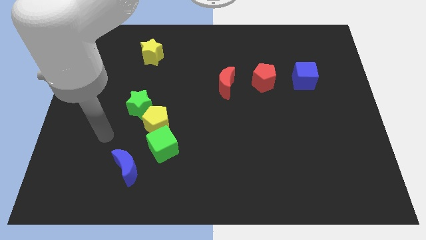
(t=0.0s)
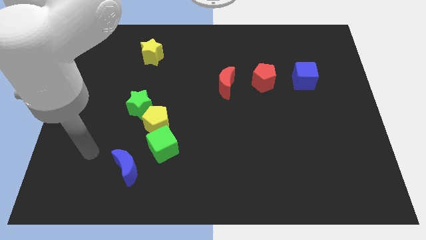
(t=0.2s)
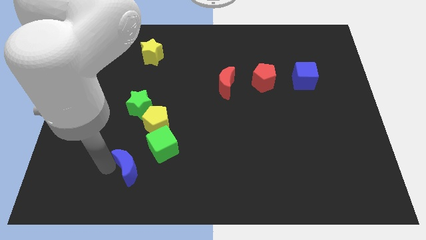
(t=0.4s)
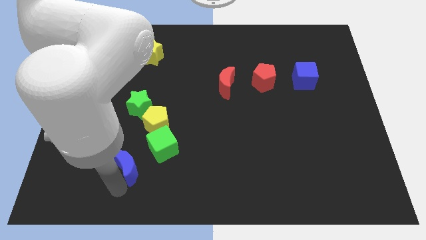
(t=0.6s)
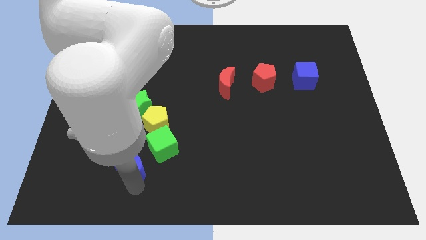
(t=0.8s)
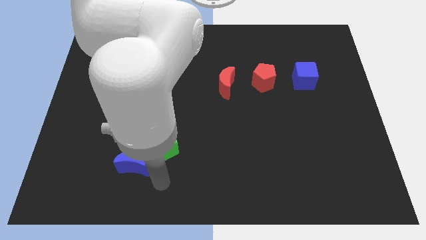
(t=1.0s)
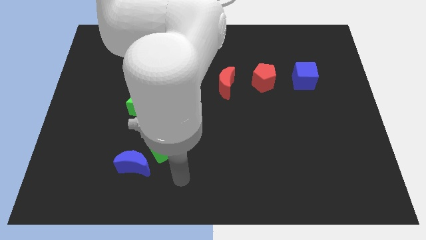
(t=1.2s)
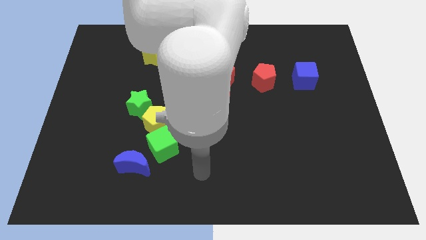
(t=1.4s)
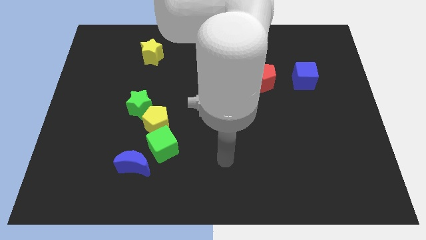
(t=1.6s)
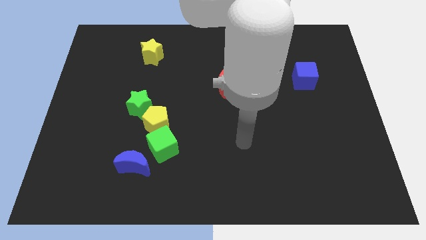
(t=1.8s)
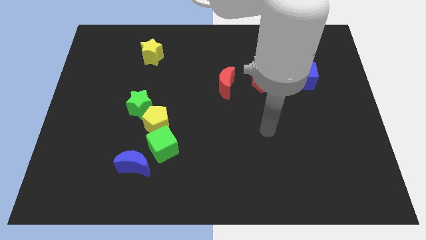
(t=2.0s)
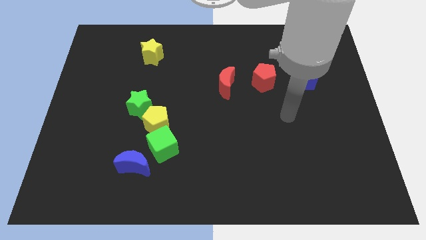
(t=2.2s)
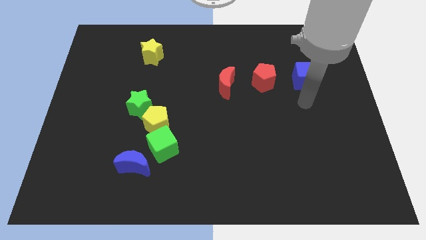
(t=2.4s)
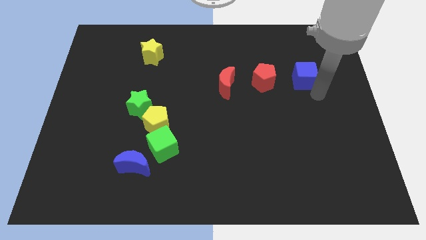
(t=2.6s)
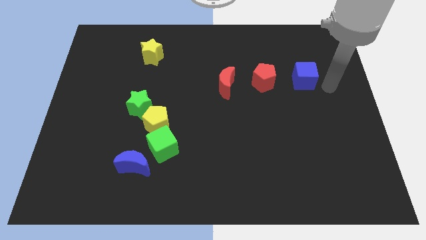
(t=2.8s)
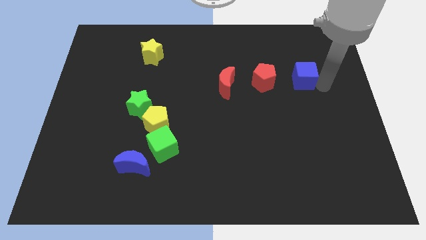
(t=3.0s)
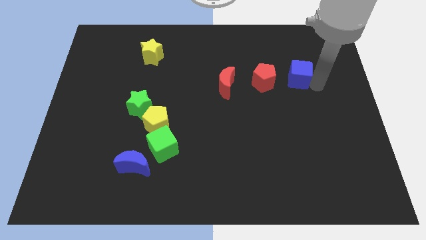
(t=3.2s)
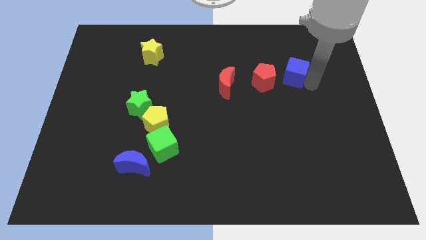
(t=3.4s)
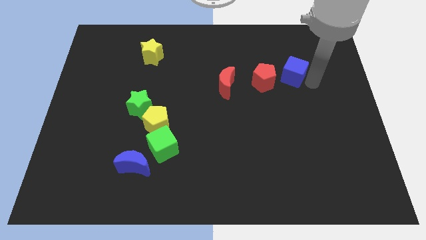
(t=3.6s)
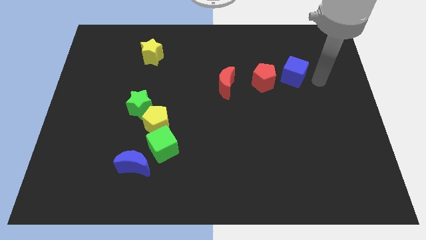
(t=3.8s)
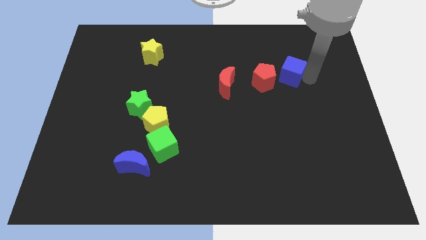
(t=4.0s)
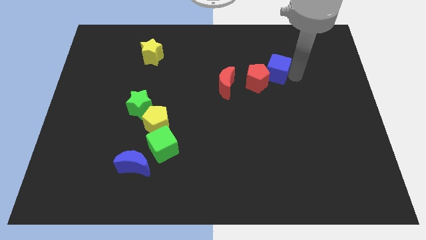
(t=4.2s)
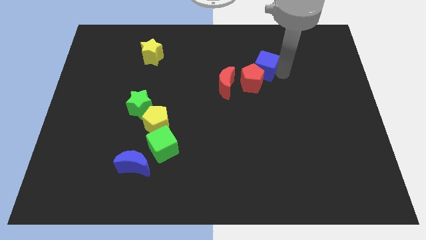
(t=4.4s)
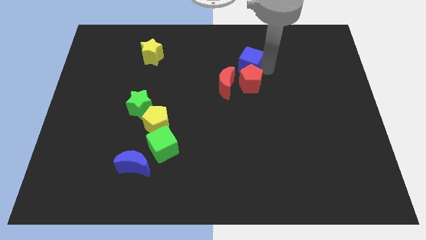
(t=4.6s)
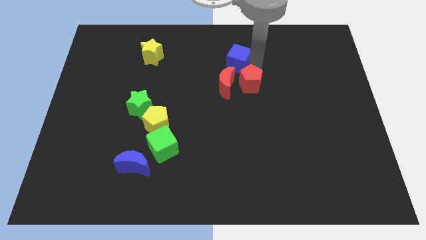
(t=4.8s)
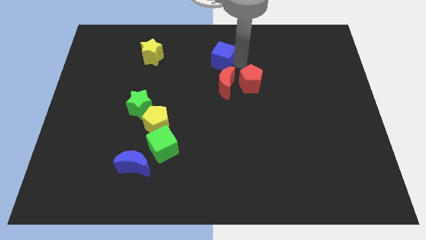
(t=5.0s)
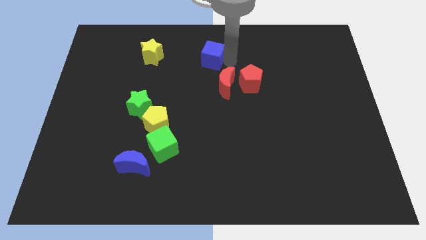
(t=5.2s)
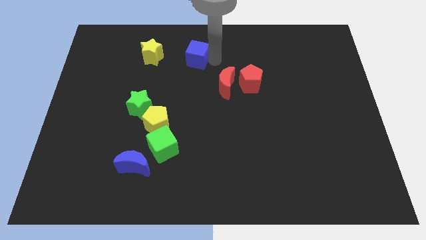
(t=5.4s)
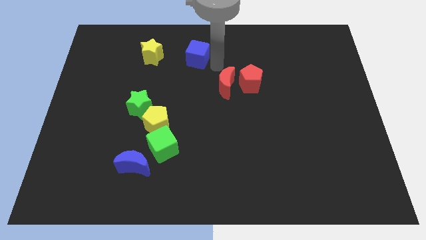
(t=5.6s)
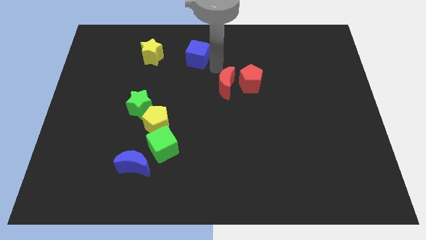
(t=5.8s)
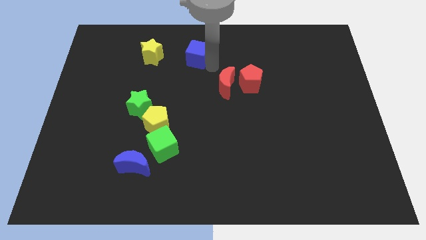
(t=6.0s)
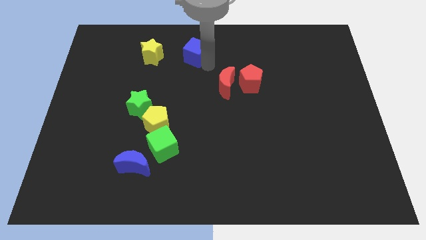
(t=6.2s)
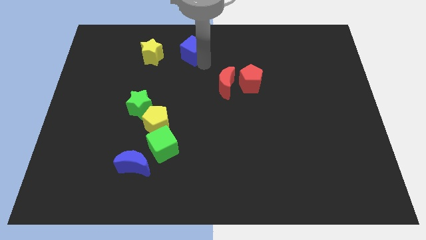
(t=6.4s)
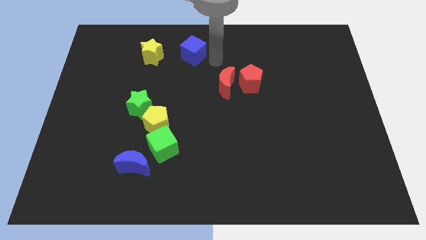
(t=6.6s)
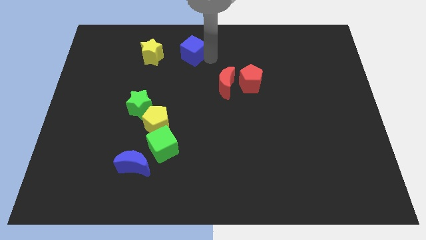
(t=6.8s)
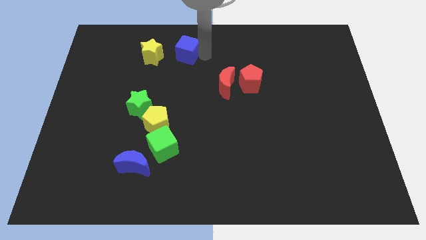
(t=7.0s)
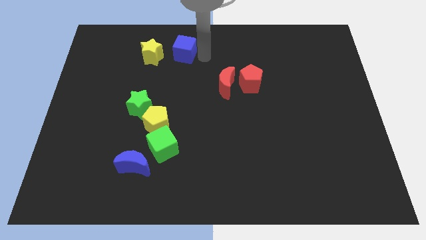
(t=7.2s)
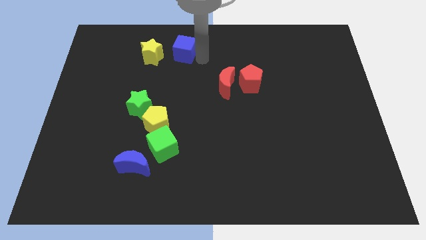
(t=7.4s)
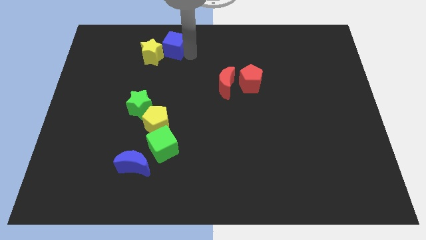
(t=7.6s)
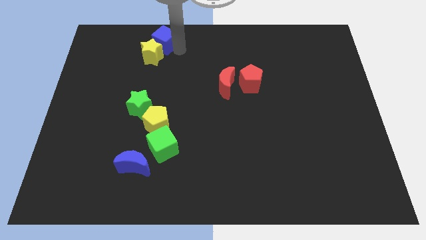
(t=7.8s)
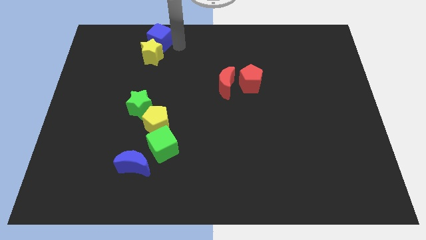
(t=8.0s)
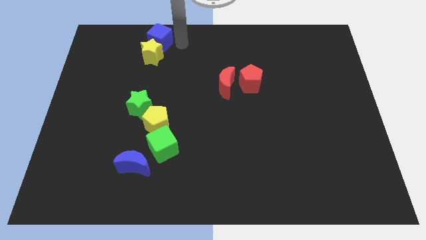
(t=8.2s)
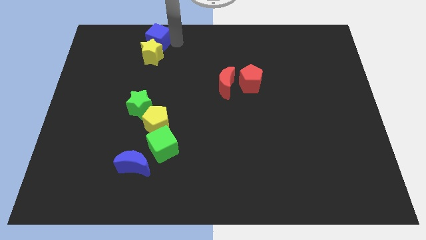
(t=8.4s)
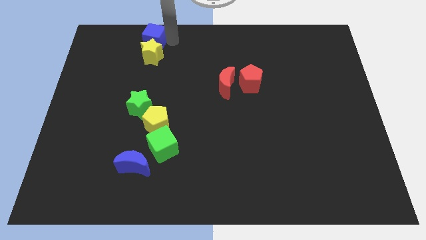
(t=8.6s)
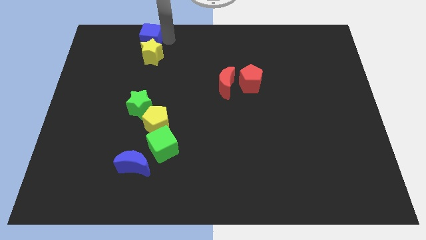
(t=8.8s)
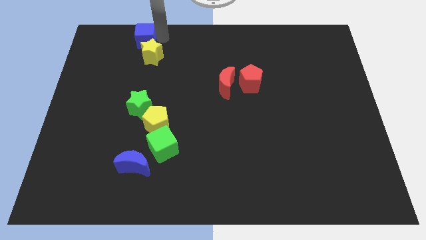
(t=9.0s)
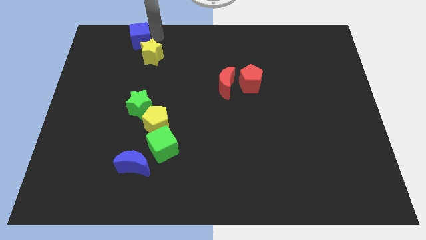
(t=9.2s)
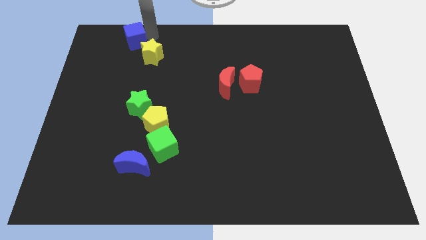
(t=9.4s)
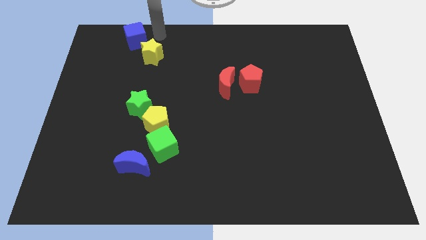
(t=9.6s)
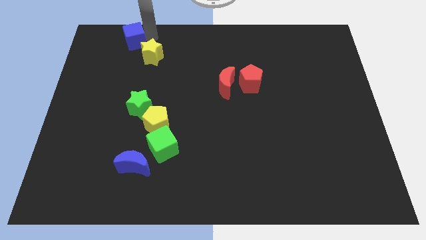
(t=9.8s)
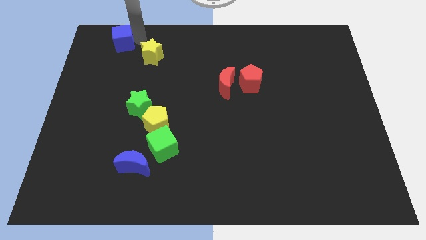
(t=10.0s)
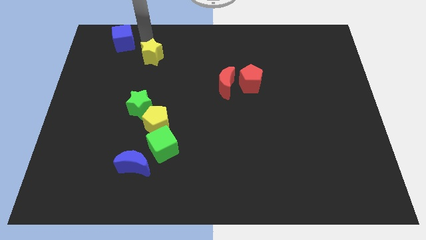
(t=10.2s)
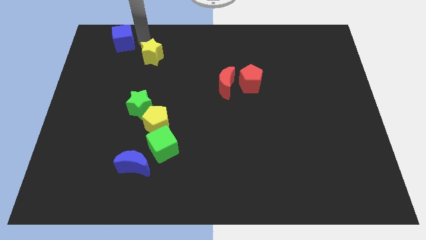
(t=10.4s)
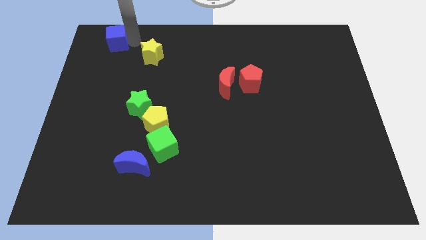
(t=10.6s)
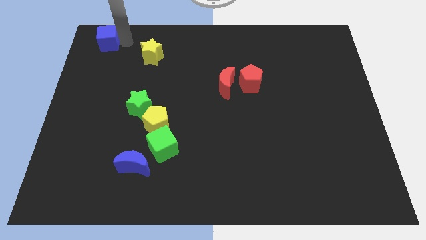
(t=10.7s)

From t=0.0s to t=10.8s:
push the blue cube to the upper left corner
